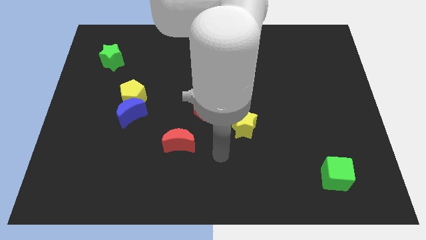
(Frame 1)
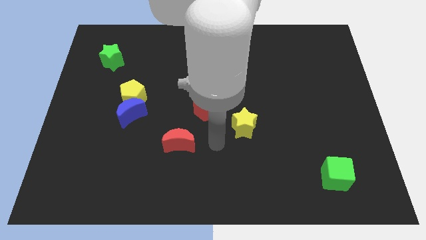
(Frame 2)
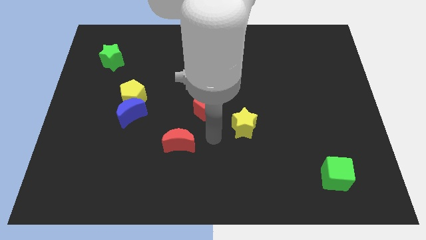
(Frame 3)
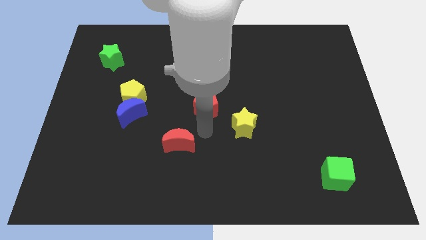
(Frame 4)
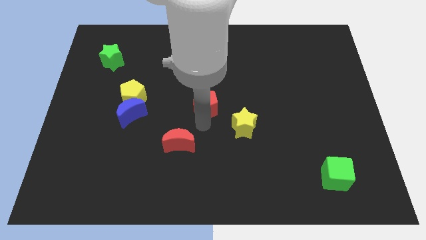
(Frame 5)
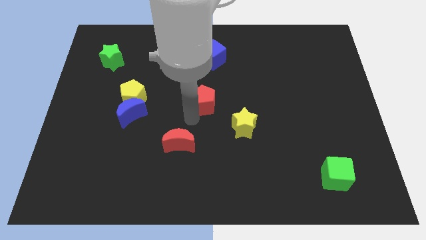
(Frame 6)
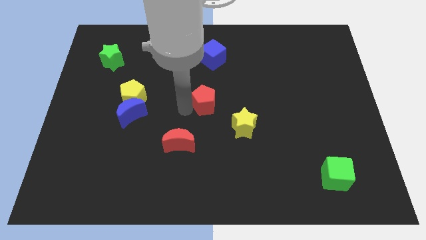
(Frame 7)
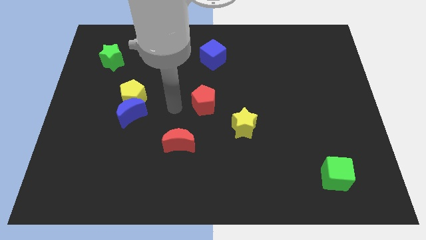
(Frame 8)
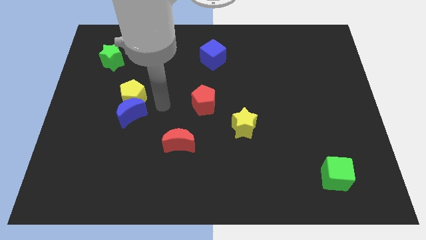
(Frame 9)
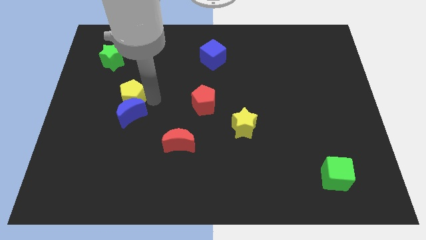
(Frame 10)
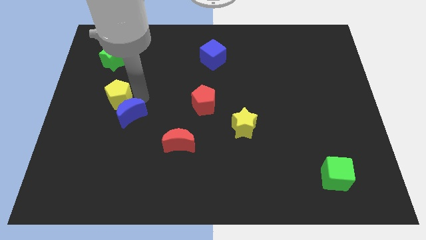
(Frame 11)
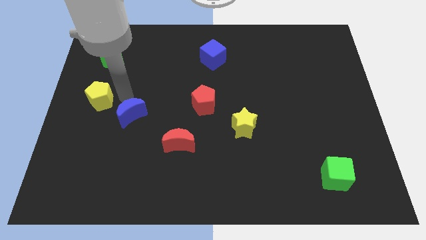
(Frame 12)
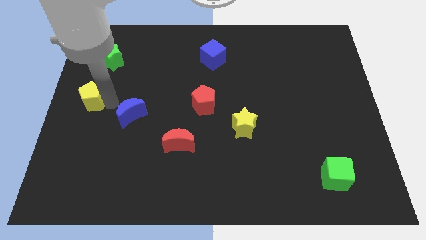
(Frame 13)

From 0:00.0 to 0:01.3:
pull the blue moon apart from the yellow pentagon

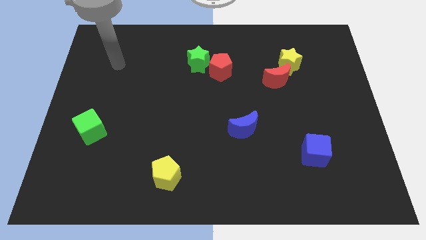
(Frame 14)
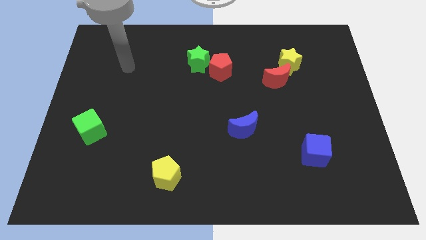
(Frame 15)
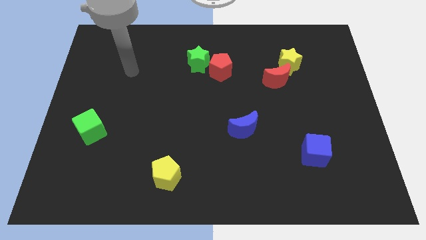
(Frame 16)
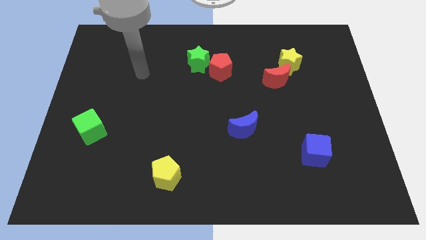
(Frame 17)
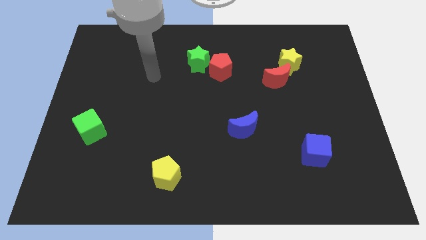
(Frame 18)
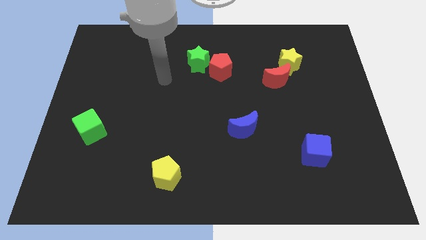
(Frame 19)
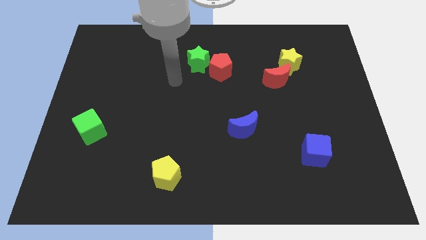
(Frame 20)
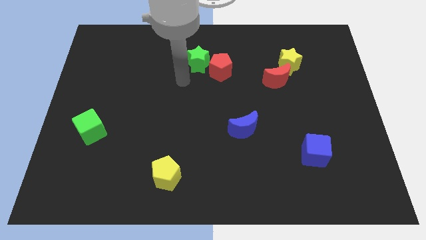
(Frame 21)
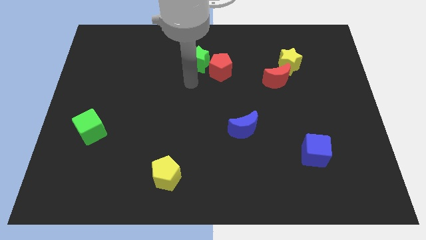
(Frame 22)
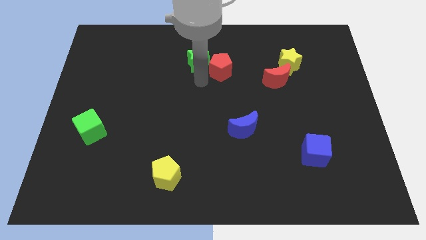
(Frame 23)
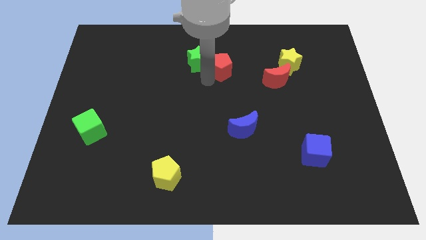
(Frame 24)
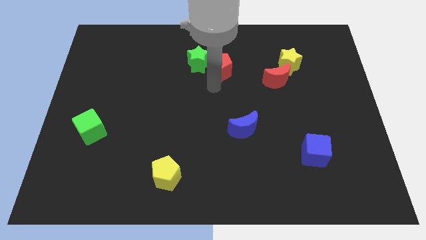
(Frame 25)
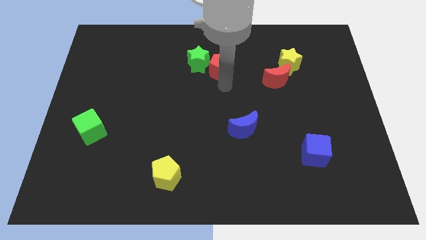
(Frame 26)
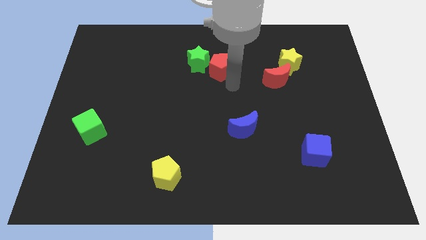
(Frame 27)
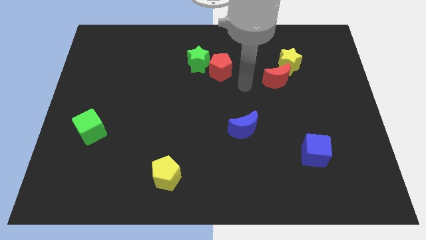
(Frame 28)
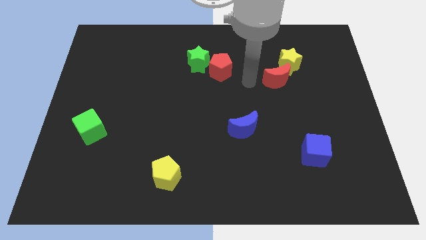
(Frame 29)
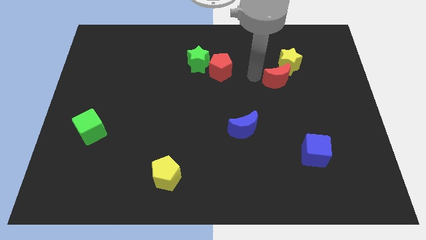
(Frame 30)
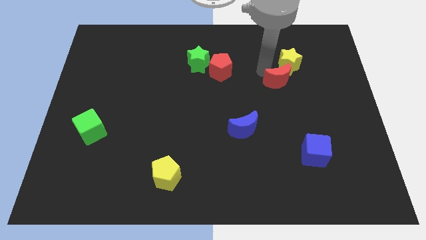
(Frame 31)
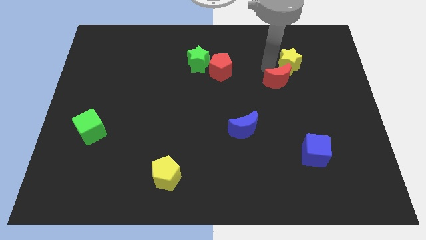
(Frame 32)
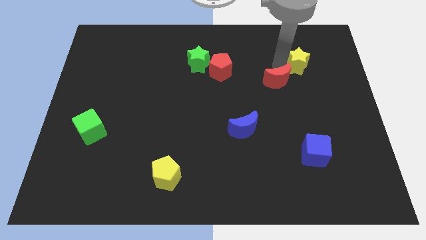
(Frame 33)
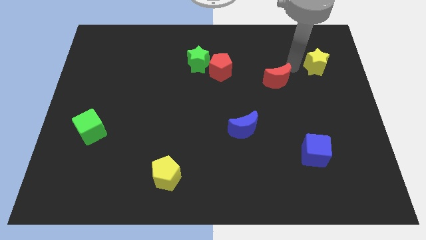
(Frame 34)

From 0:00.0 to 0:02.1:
separate the red moon from the yellow star

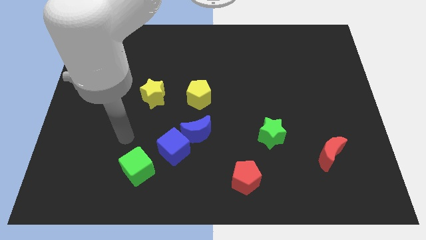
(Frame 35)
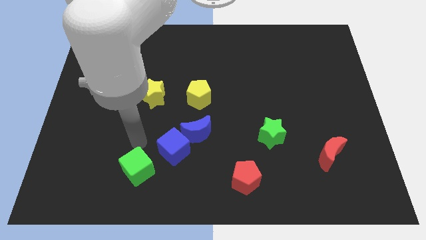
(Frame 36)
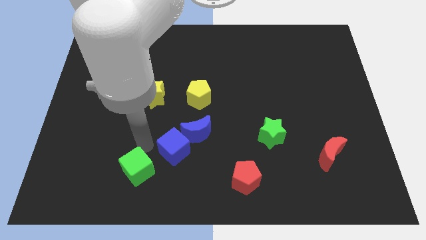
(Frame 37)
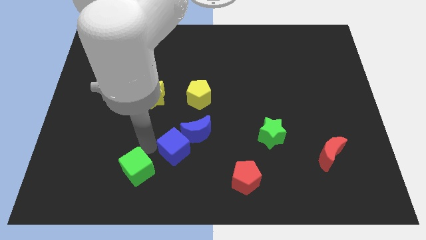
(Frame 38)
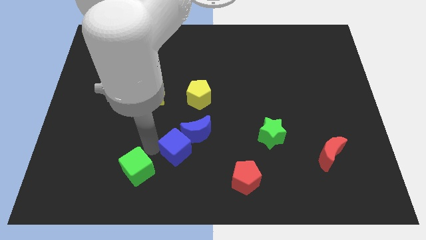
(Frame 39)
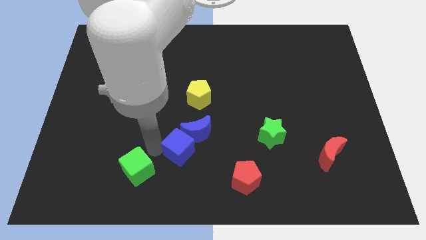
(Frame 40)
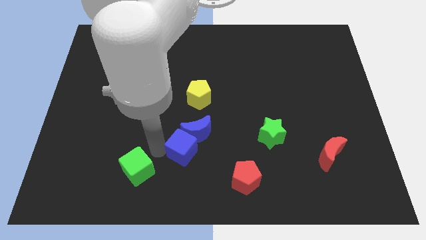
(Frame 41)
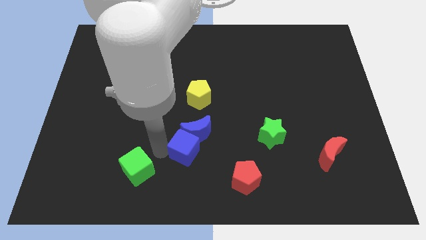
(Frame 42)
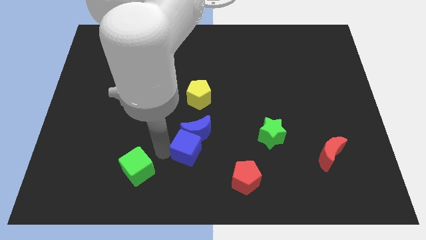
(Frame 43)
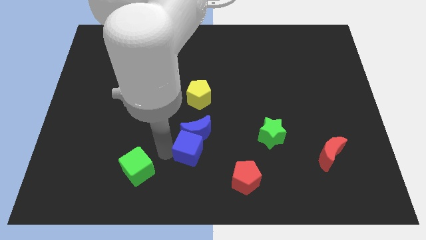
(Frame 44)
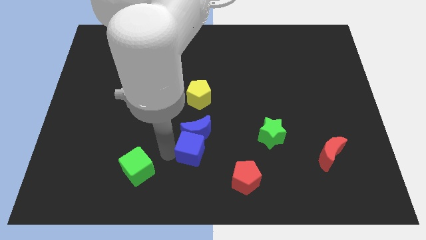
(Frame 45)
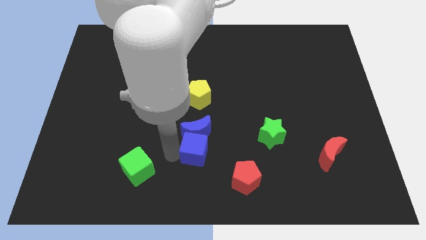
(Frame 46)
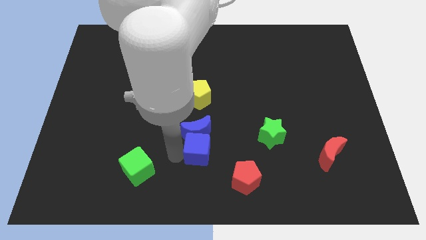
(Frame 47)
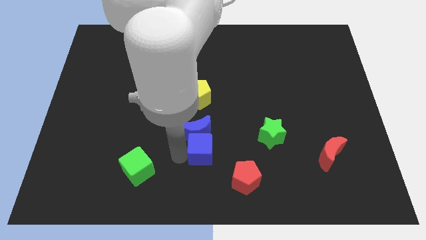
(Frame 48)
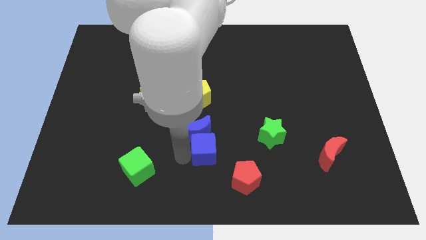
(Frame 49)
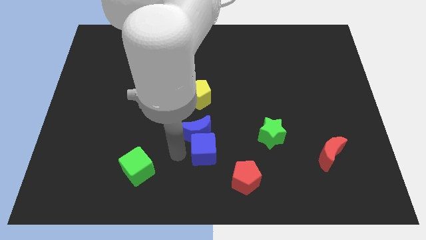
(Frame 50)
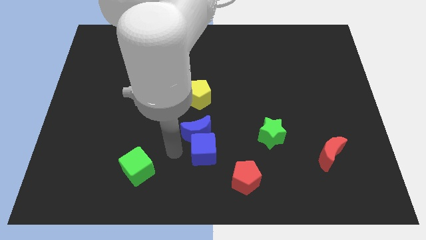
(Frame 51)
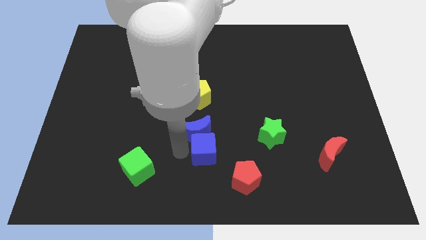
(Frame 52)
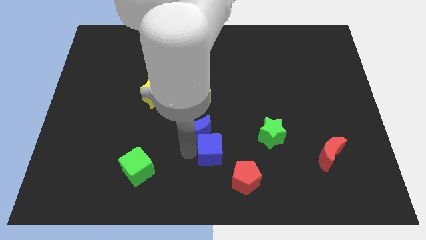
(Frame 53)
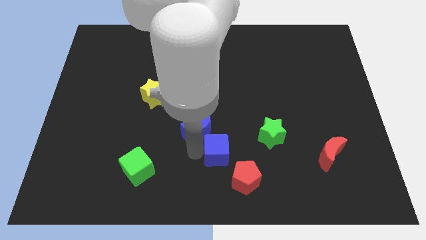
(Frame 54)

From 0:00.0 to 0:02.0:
pull the blue cube apart from the blue moon and green cube

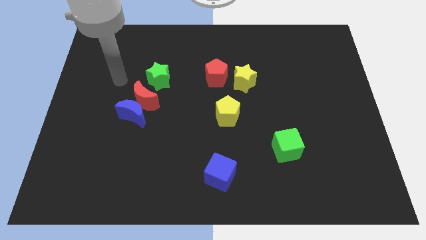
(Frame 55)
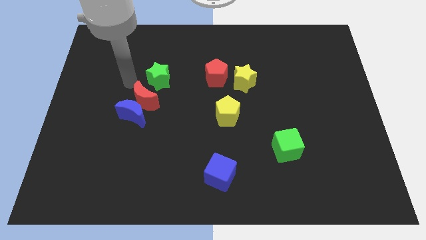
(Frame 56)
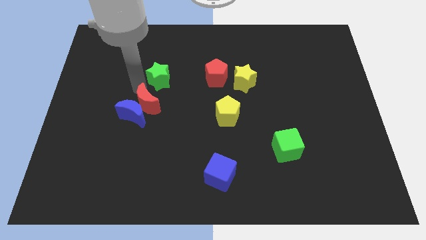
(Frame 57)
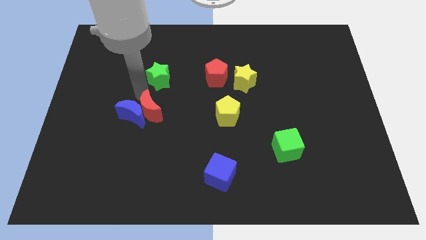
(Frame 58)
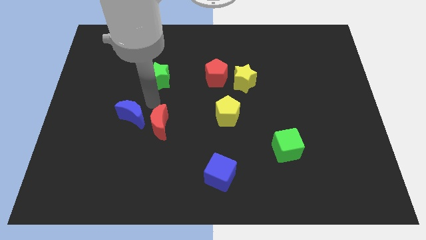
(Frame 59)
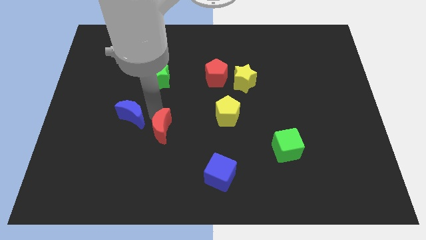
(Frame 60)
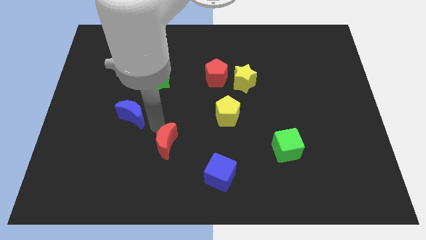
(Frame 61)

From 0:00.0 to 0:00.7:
move the blue moon away from the red moon

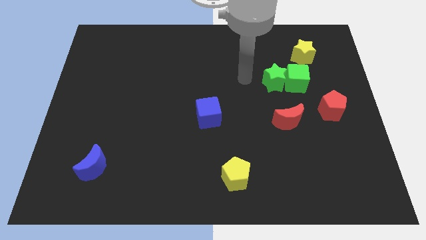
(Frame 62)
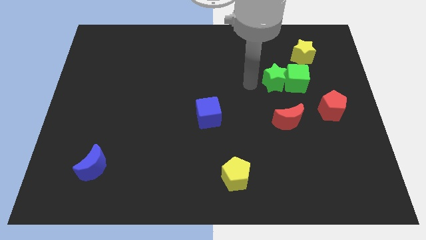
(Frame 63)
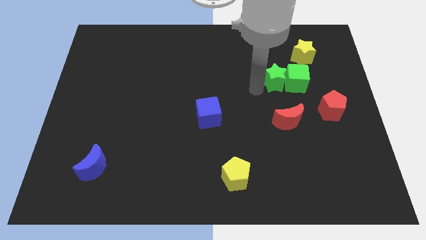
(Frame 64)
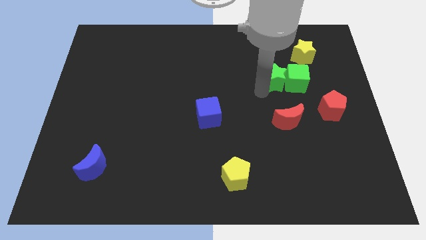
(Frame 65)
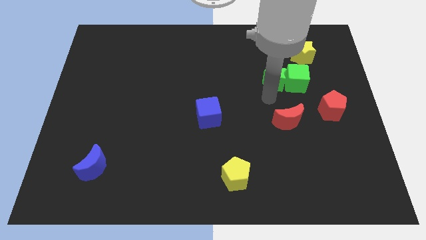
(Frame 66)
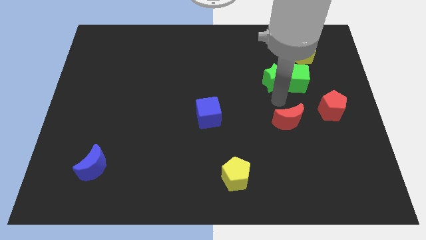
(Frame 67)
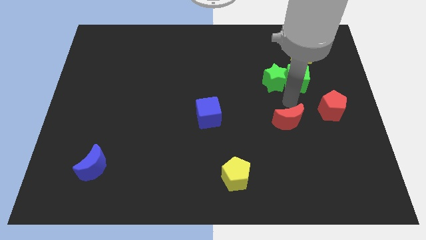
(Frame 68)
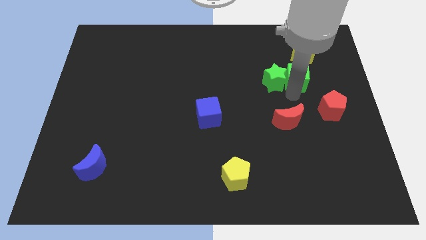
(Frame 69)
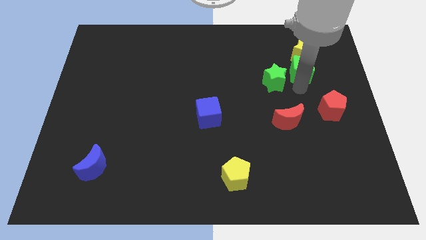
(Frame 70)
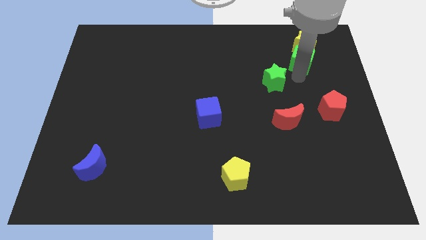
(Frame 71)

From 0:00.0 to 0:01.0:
pull the green star apart from the green cube

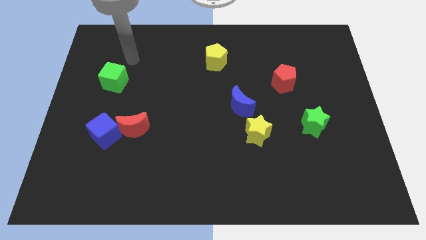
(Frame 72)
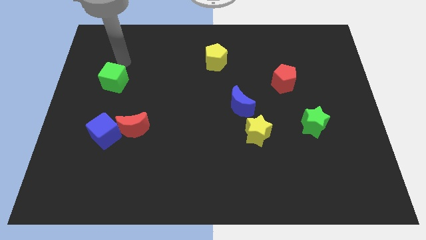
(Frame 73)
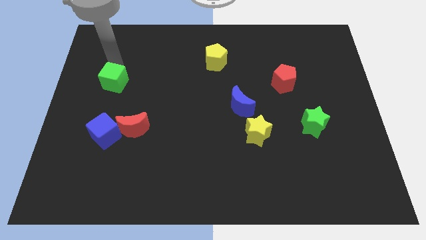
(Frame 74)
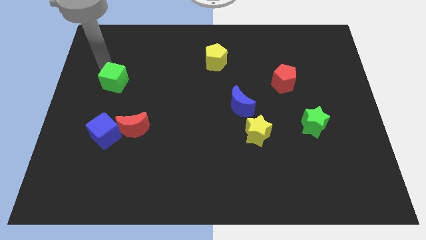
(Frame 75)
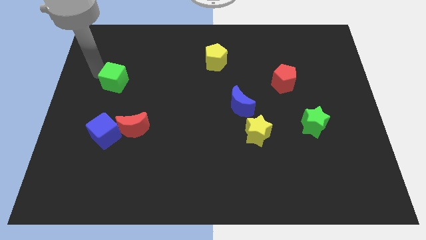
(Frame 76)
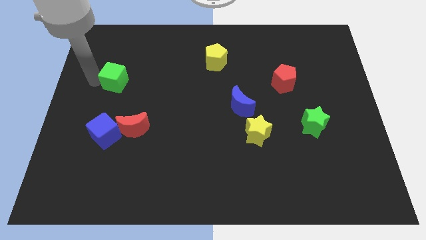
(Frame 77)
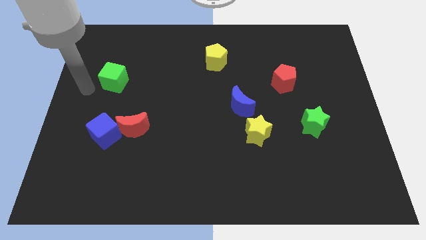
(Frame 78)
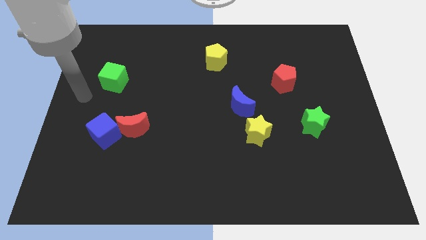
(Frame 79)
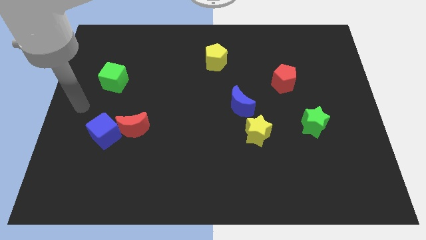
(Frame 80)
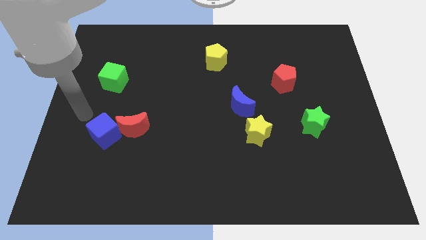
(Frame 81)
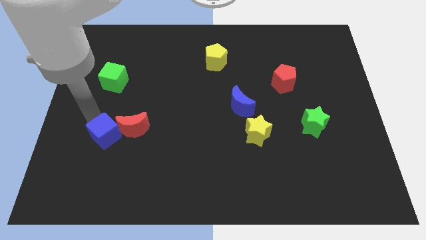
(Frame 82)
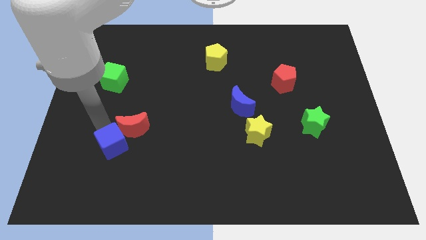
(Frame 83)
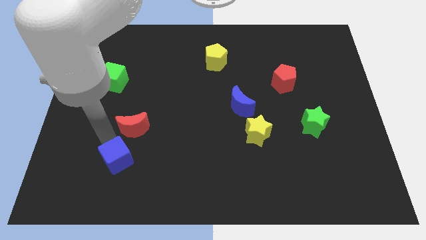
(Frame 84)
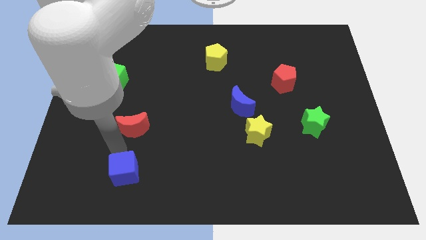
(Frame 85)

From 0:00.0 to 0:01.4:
move the red moon away from the blue cube

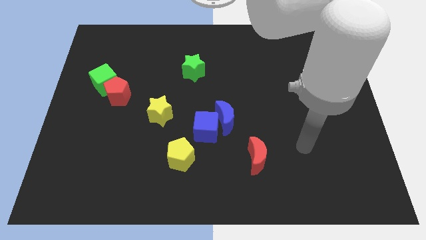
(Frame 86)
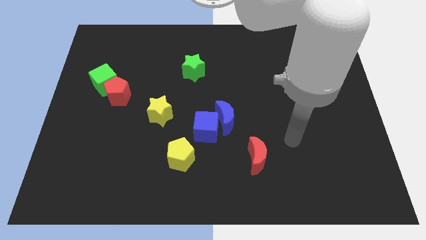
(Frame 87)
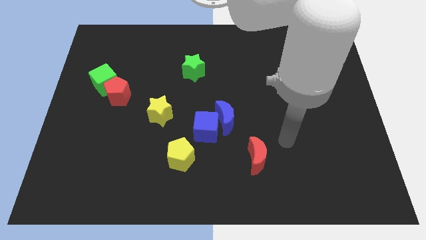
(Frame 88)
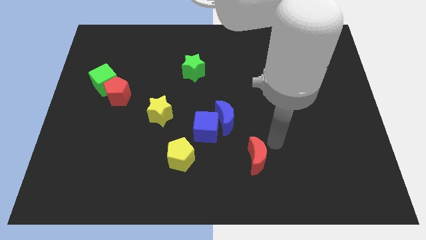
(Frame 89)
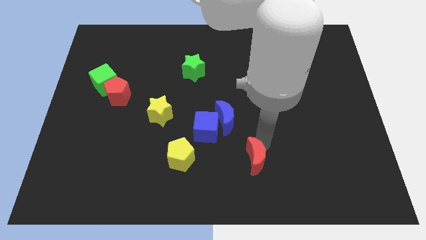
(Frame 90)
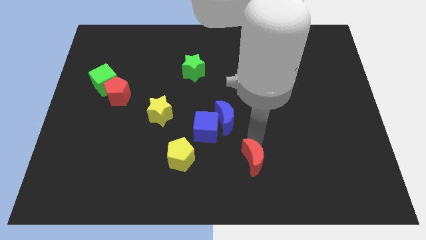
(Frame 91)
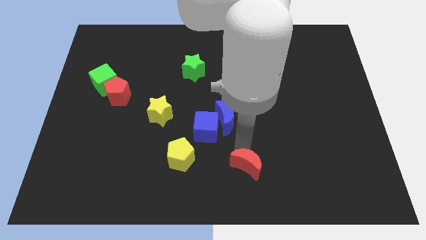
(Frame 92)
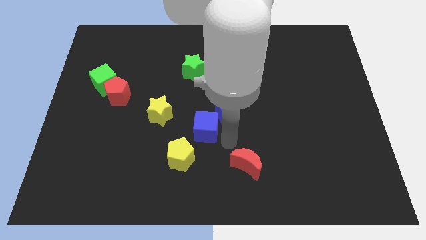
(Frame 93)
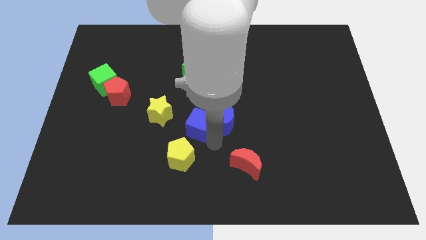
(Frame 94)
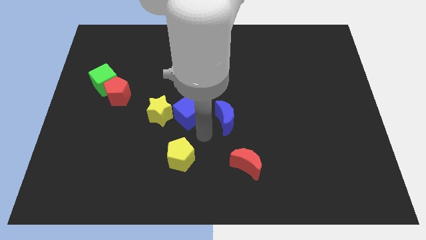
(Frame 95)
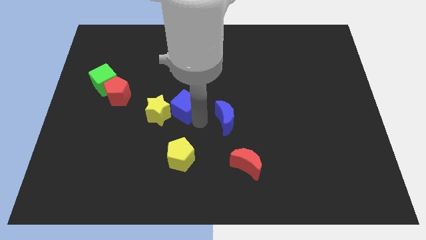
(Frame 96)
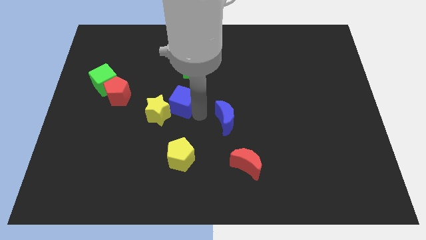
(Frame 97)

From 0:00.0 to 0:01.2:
separate the blue moon from the blue cube
